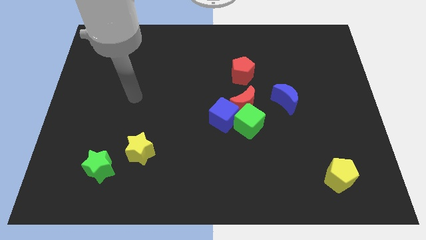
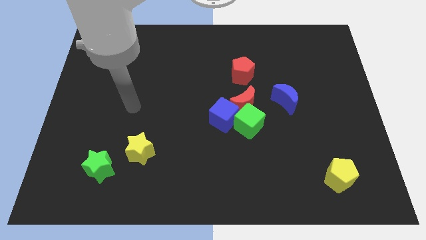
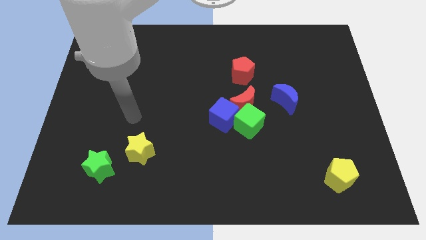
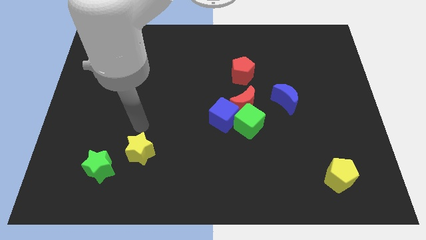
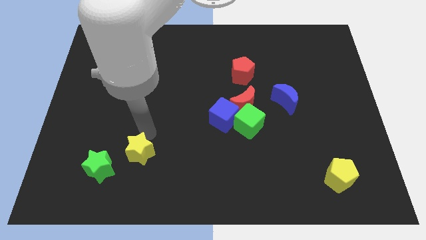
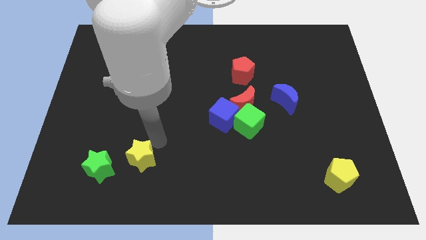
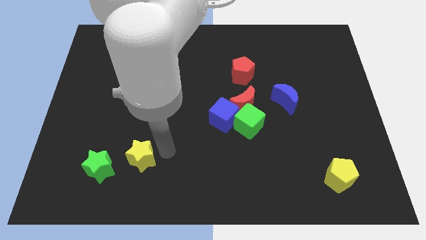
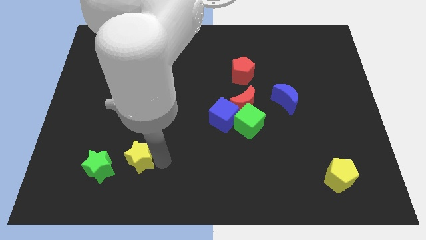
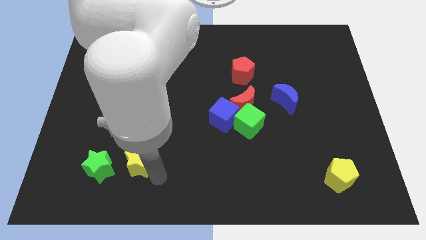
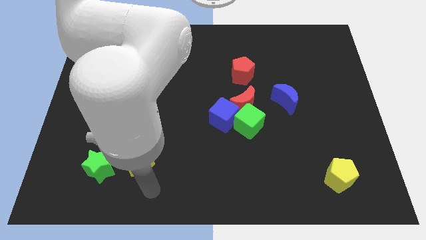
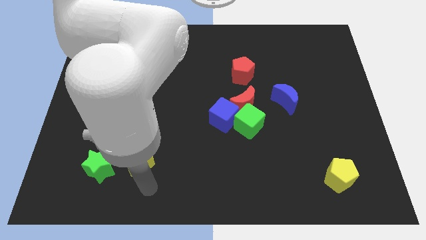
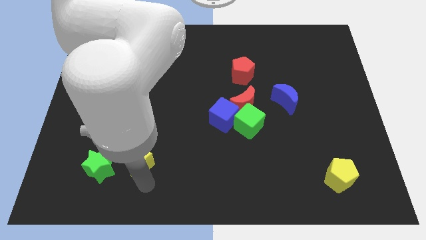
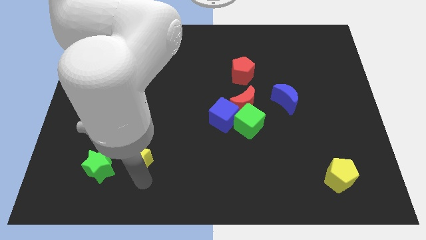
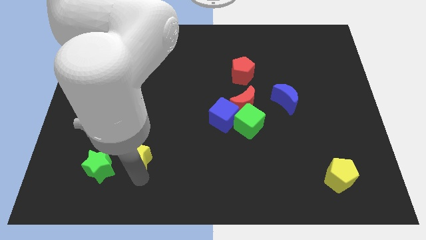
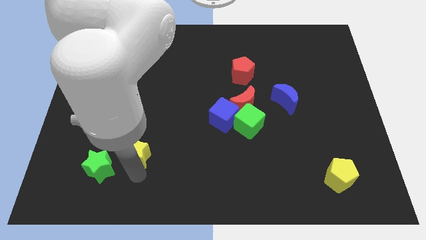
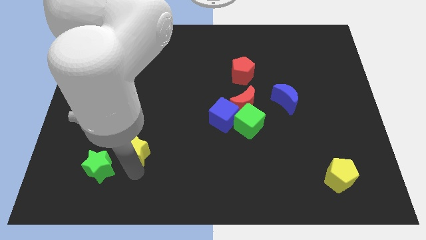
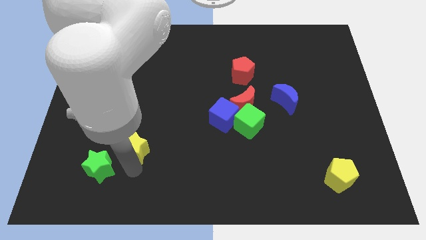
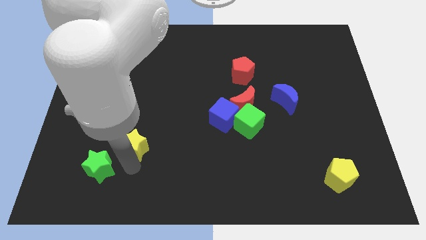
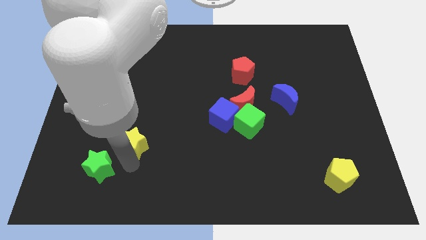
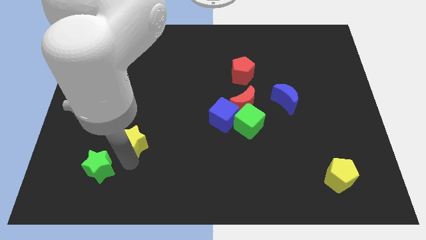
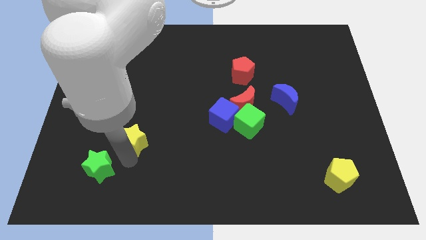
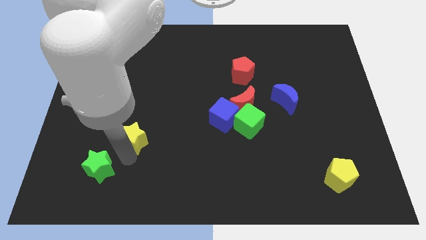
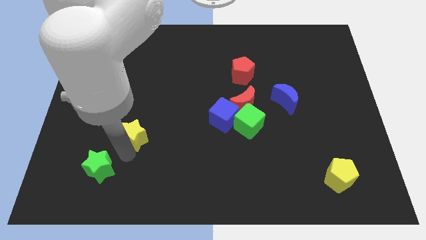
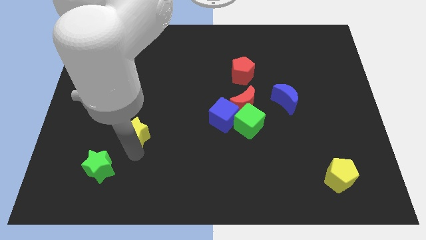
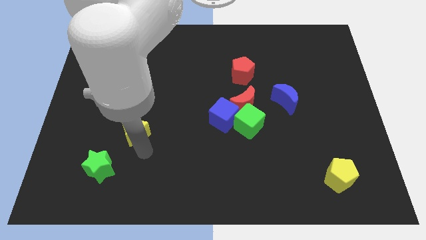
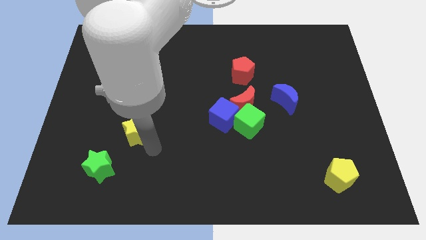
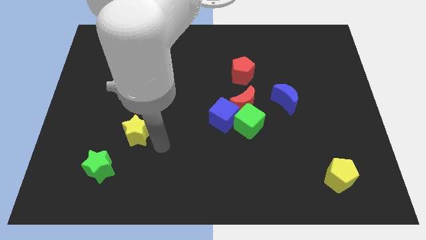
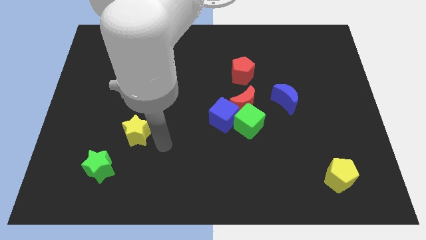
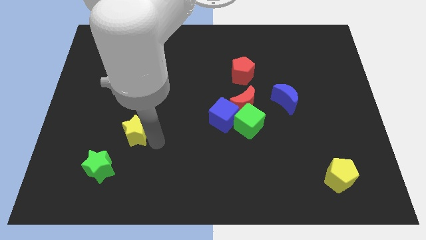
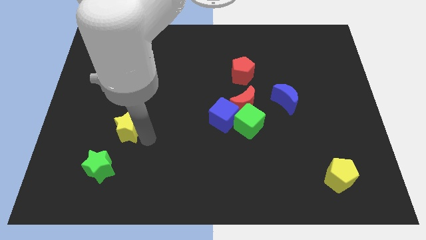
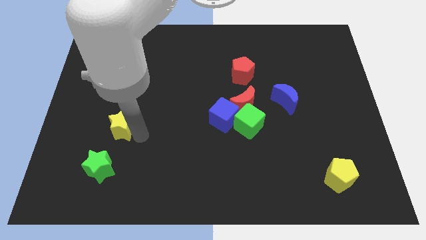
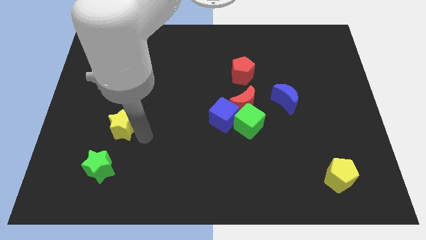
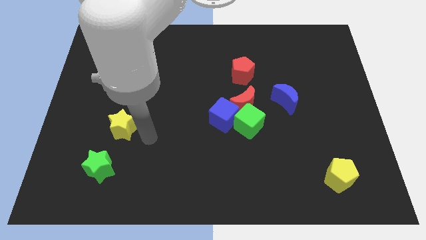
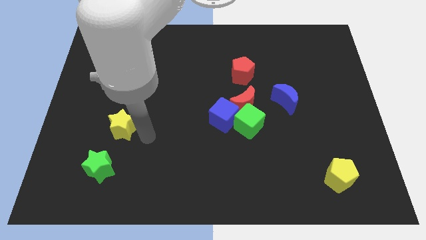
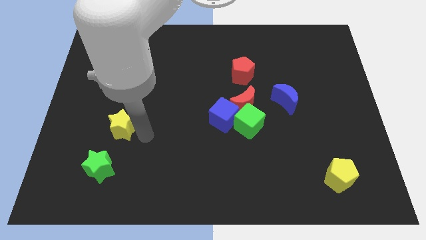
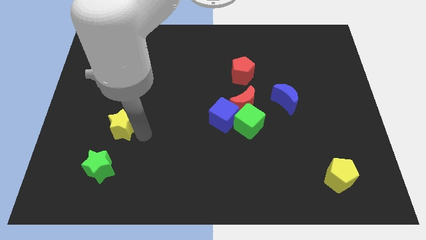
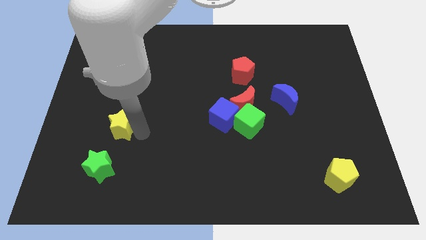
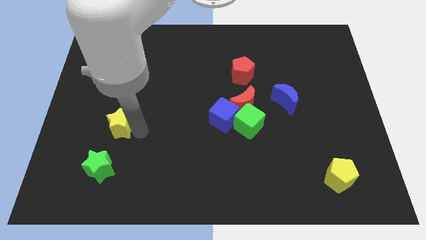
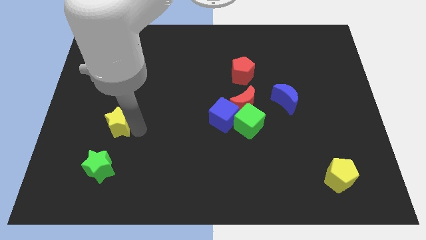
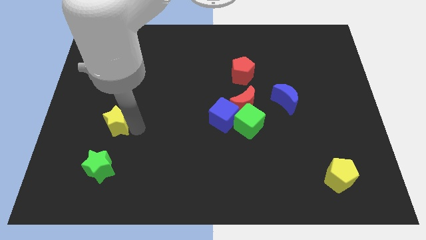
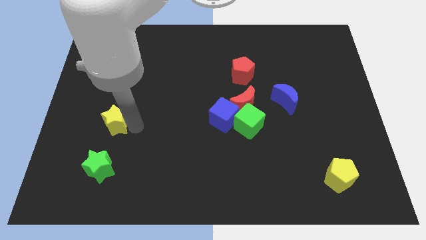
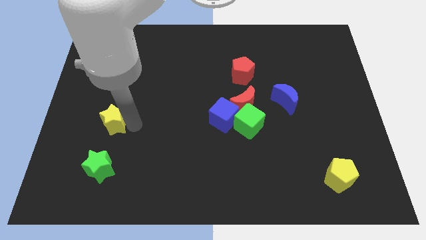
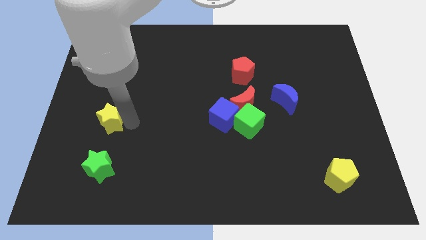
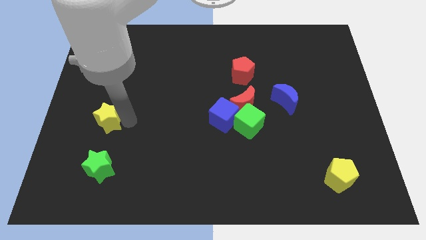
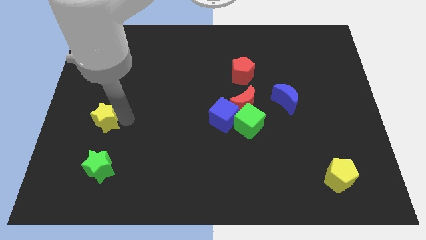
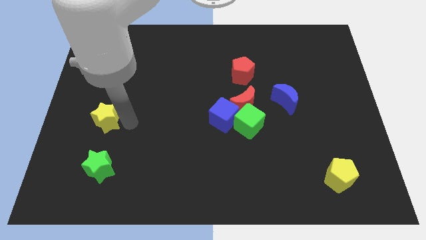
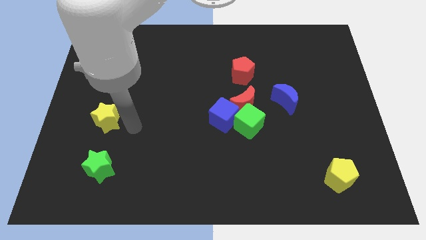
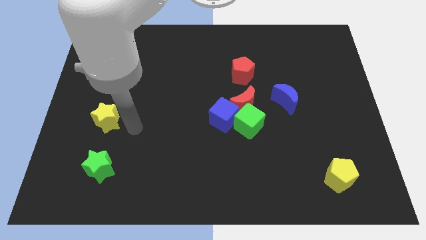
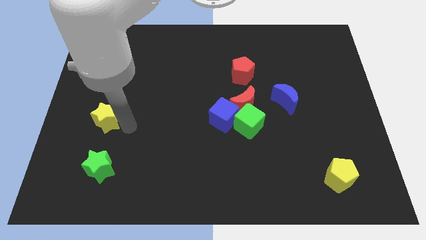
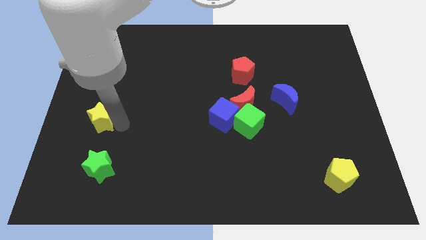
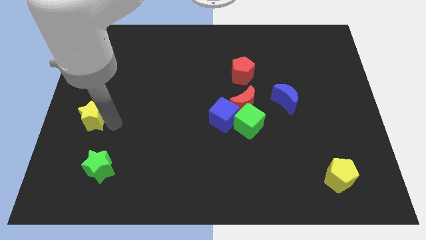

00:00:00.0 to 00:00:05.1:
move the yellow star to the left side of the board

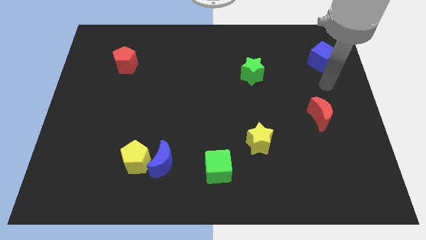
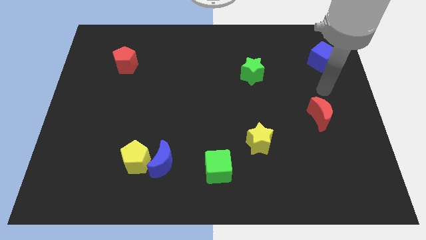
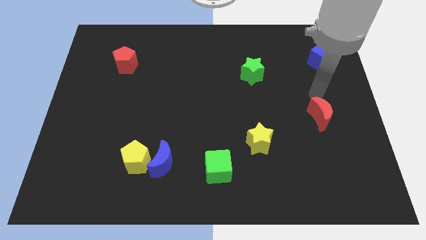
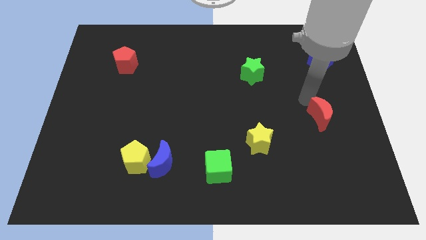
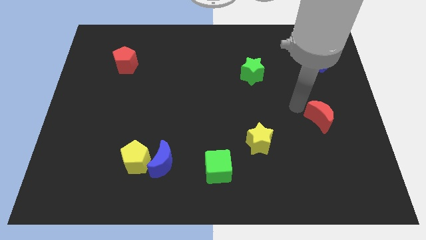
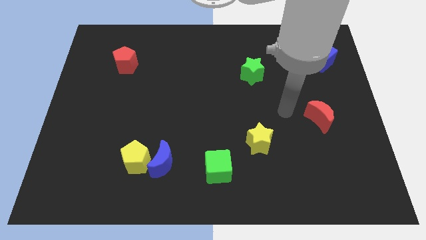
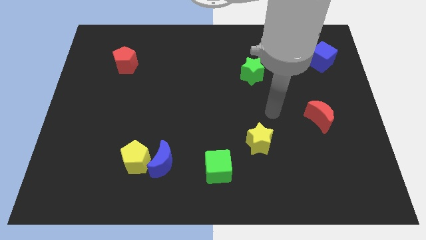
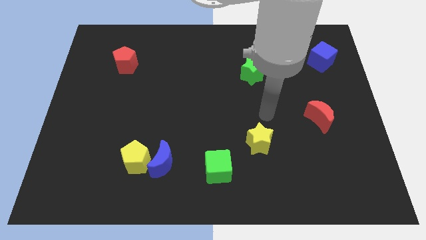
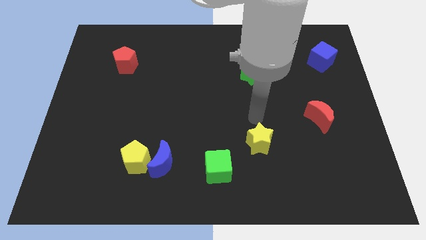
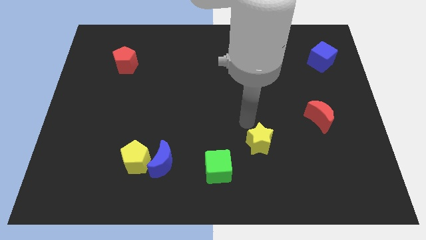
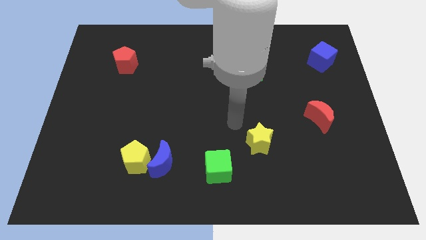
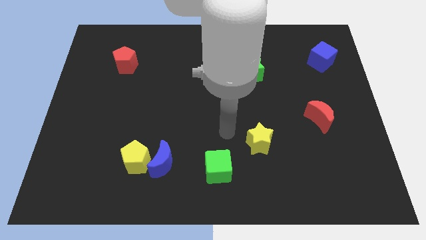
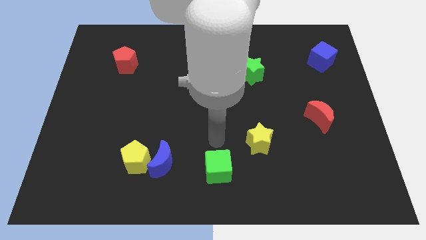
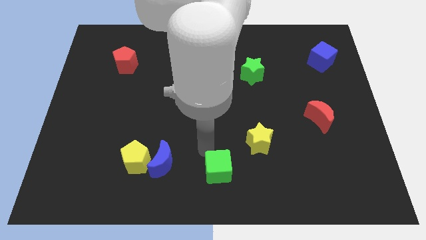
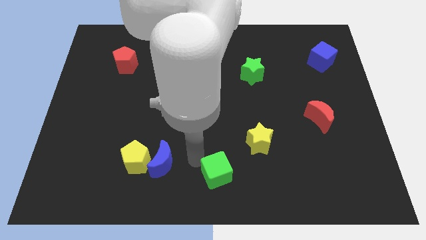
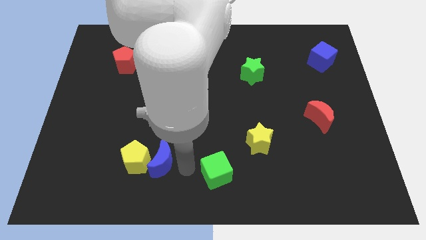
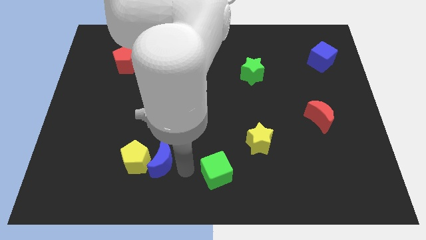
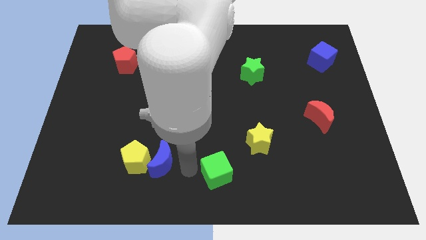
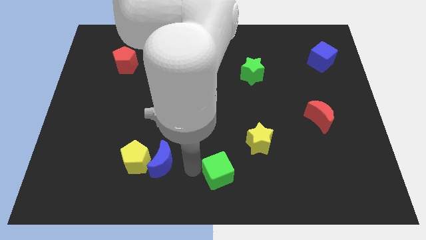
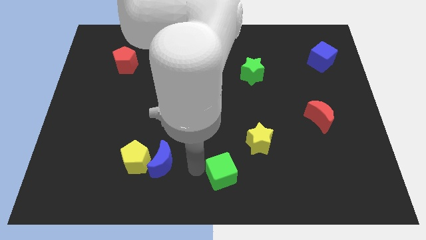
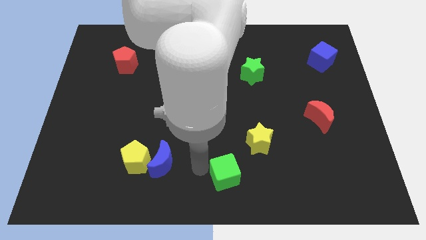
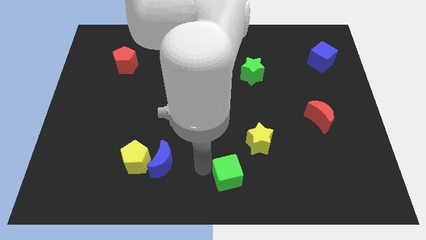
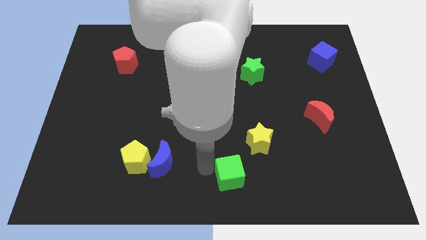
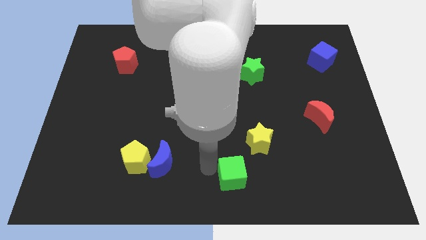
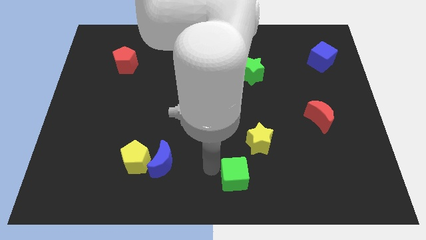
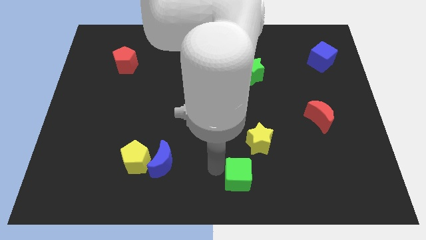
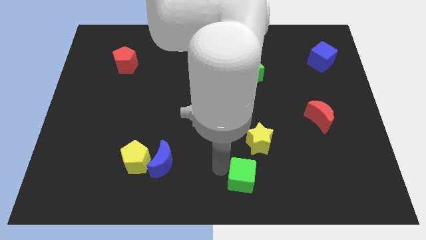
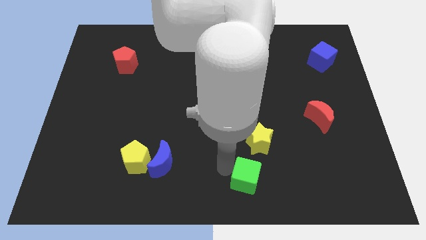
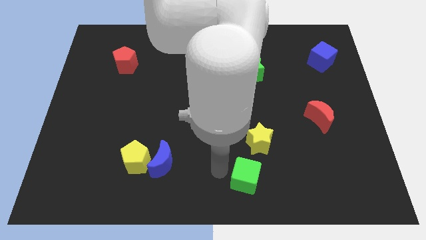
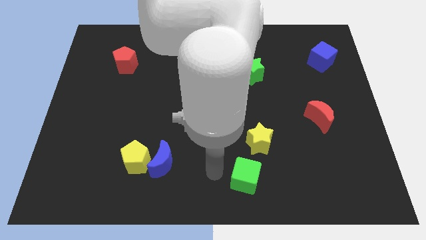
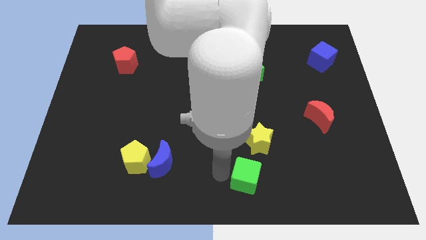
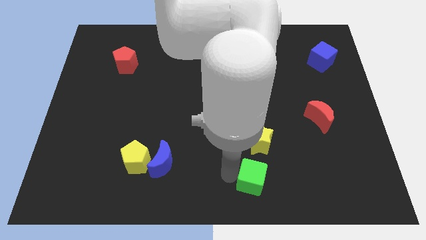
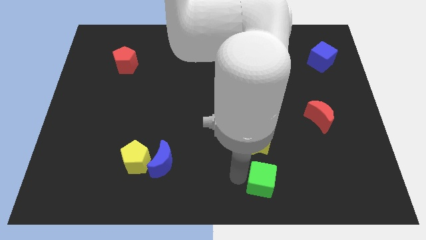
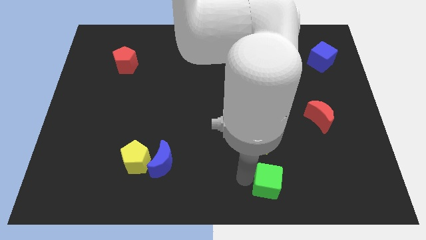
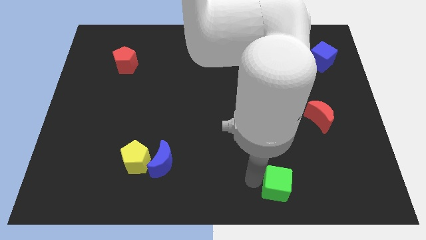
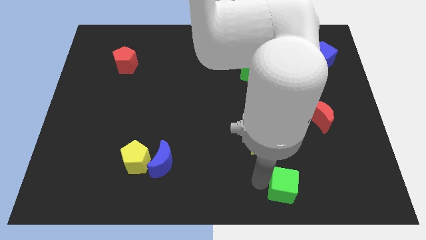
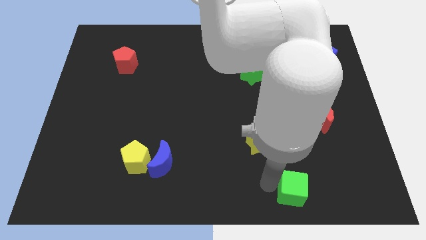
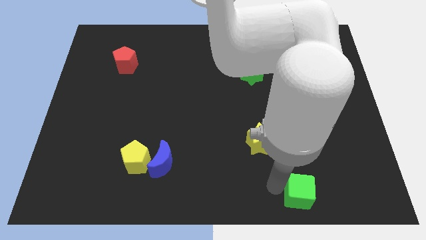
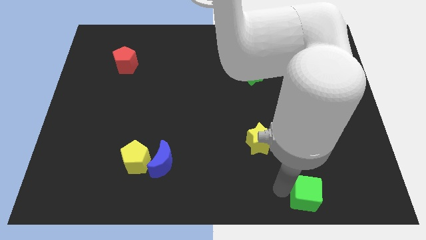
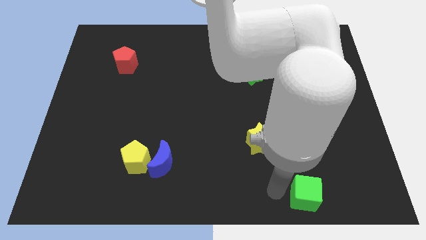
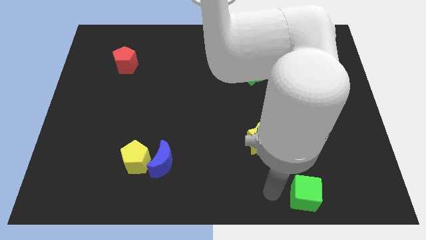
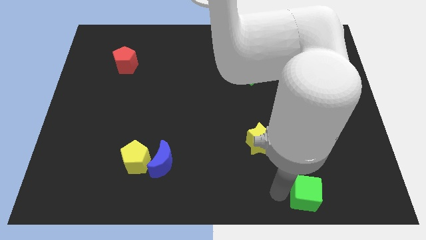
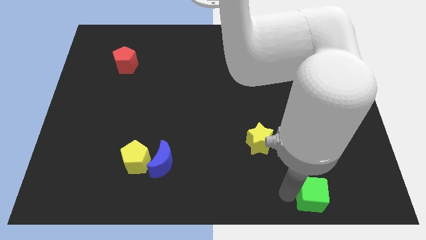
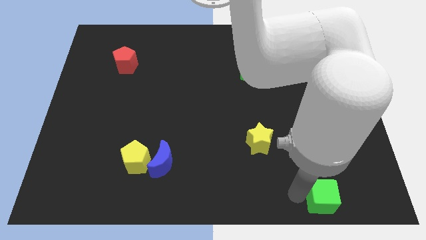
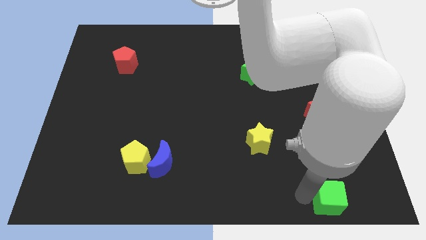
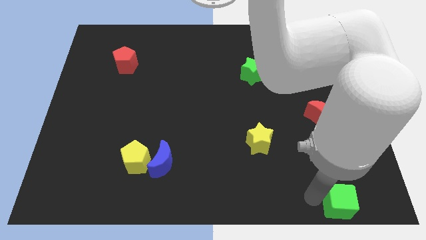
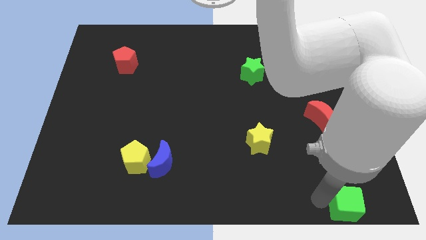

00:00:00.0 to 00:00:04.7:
move the green cube to the lower right corner
